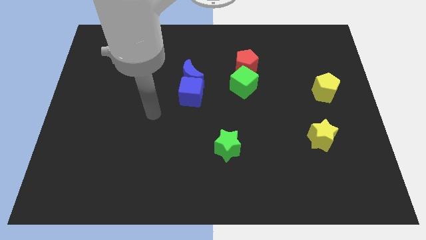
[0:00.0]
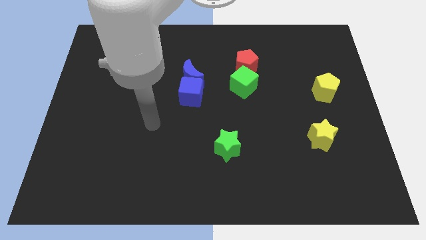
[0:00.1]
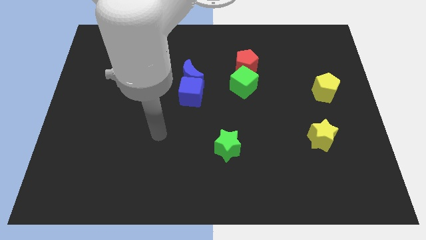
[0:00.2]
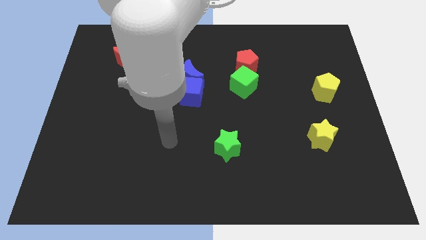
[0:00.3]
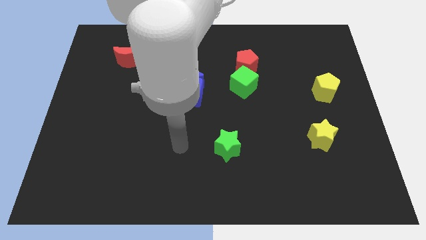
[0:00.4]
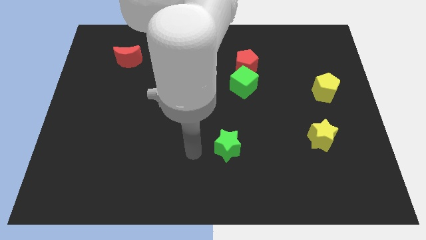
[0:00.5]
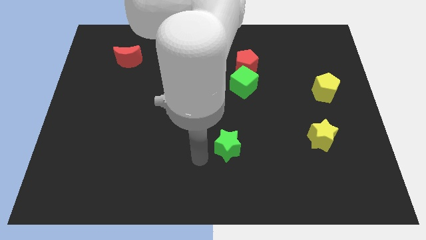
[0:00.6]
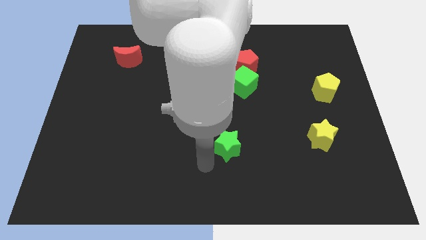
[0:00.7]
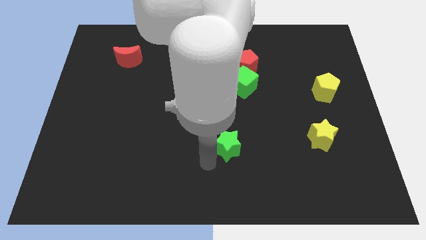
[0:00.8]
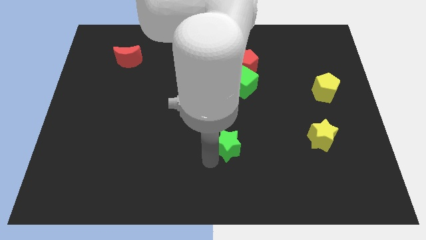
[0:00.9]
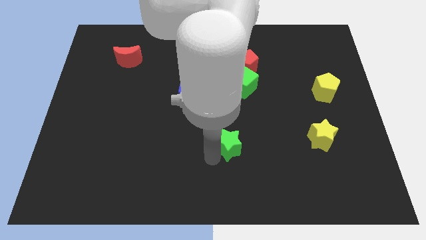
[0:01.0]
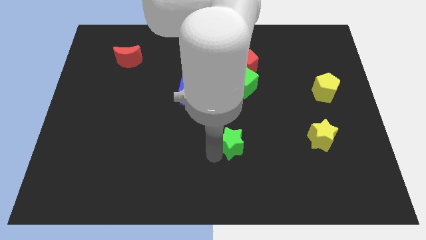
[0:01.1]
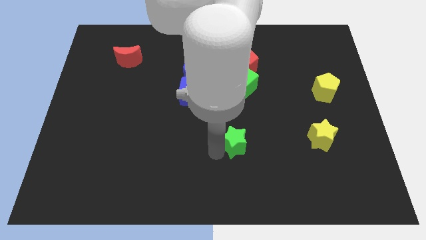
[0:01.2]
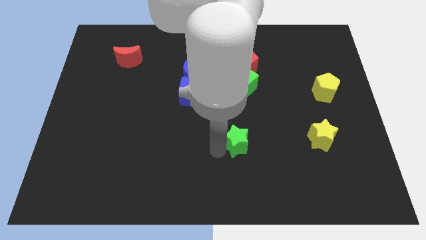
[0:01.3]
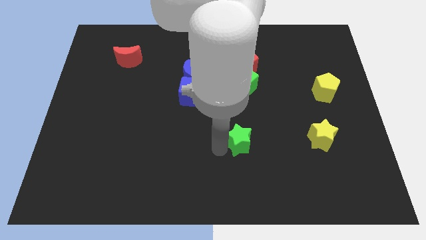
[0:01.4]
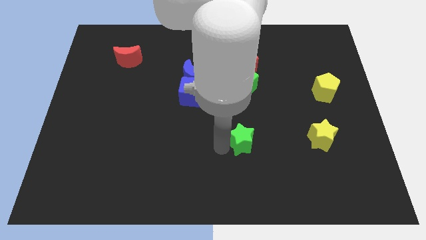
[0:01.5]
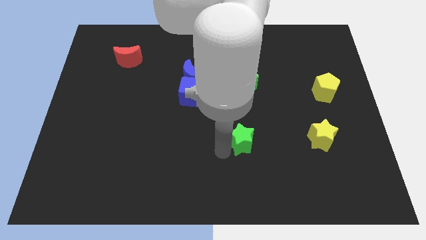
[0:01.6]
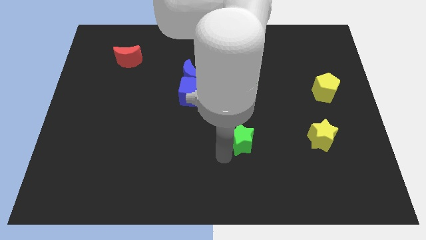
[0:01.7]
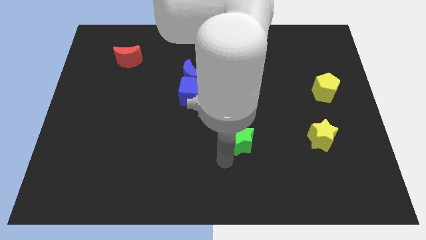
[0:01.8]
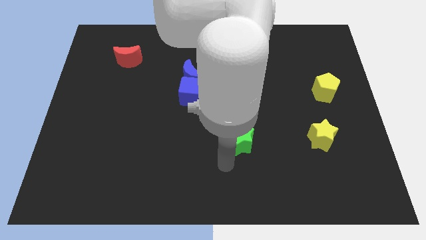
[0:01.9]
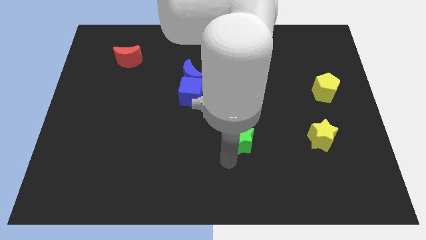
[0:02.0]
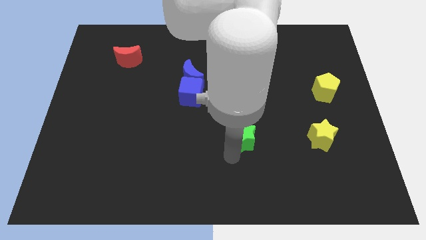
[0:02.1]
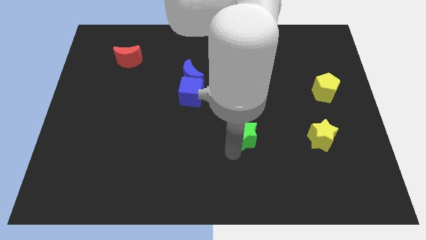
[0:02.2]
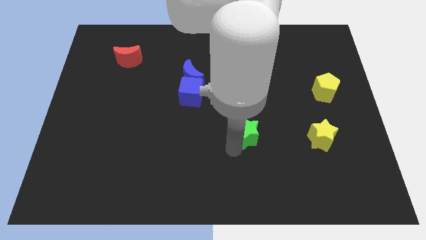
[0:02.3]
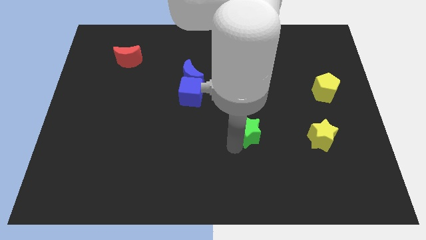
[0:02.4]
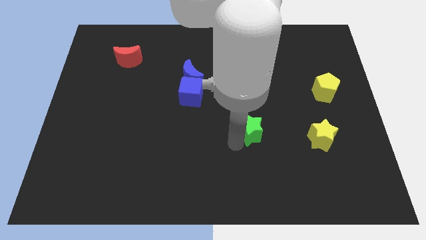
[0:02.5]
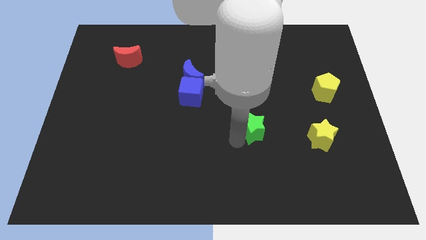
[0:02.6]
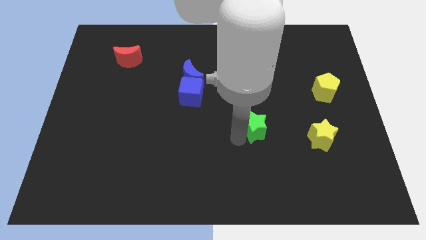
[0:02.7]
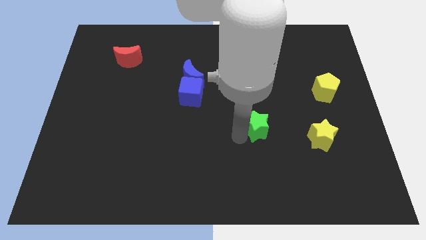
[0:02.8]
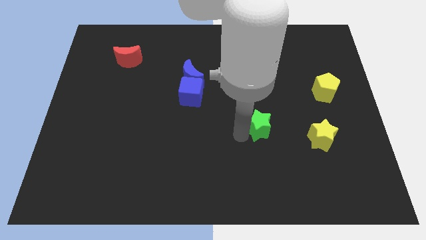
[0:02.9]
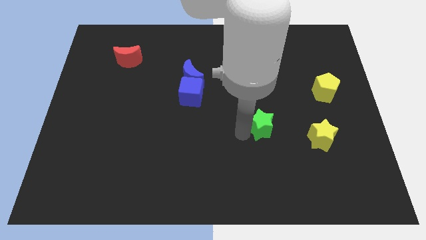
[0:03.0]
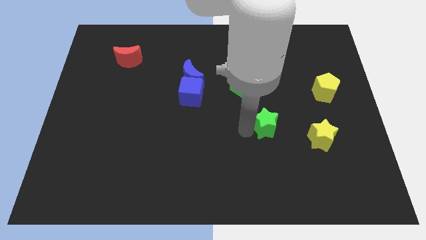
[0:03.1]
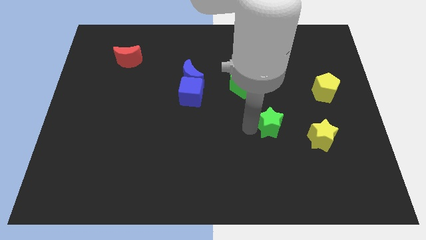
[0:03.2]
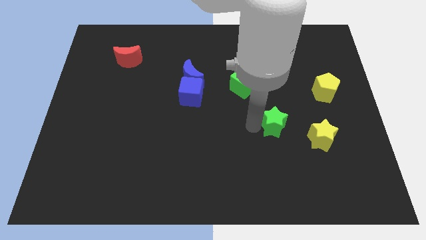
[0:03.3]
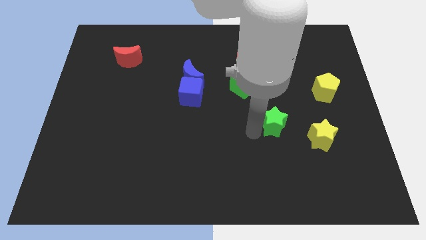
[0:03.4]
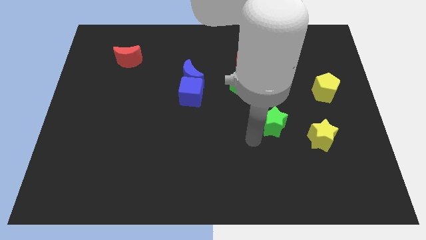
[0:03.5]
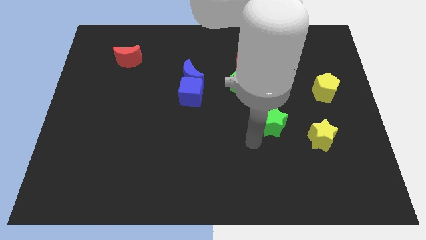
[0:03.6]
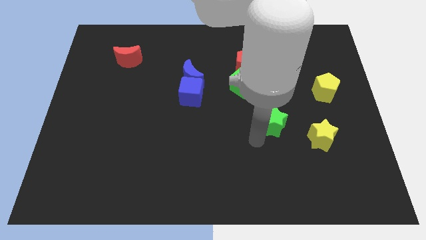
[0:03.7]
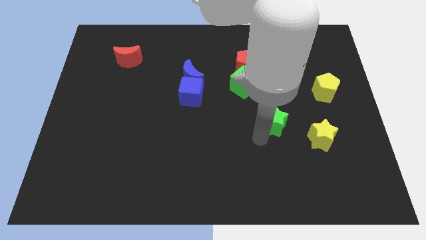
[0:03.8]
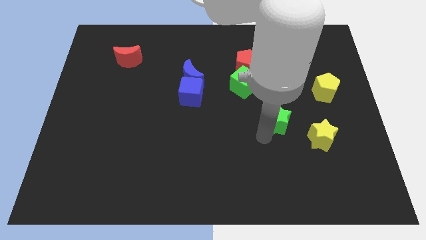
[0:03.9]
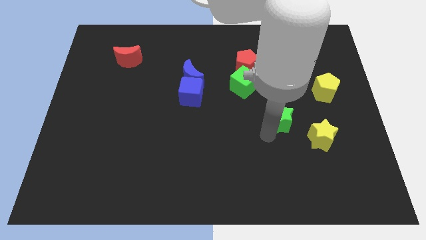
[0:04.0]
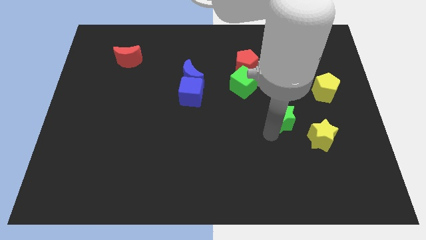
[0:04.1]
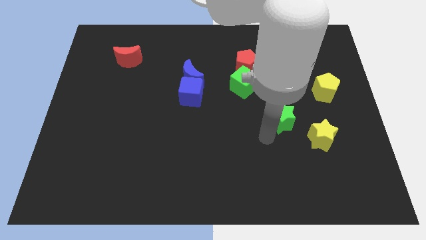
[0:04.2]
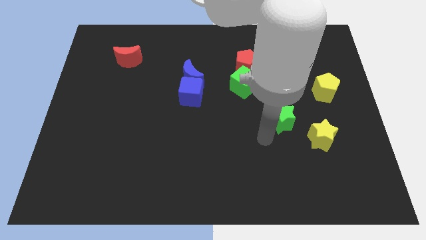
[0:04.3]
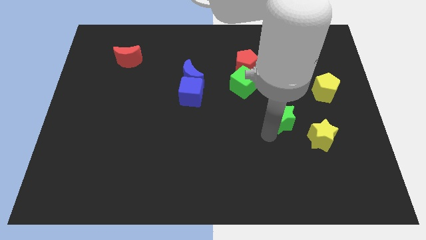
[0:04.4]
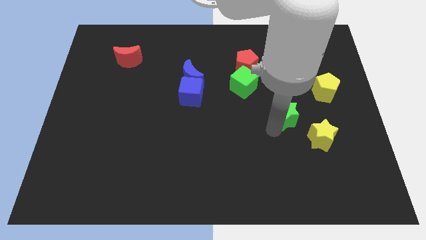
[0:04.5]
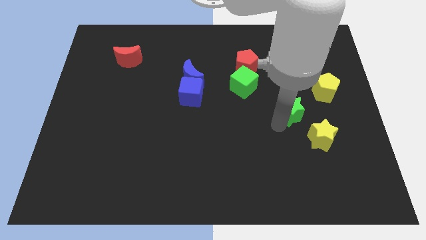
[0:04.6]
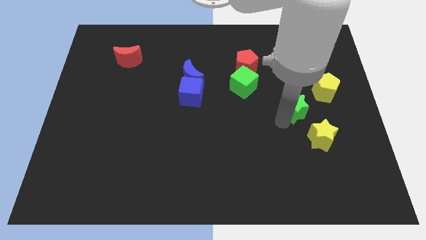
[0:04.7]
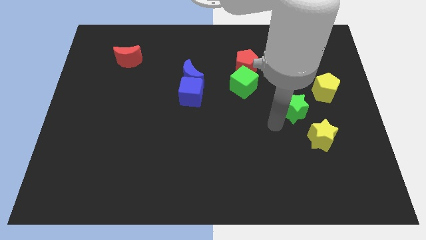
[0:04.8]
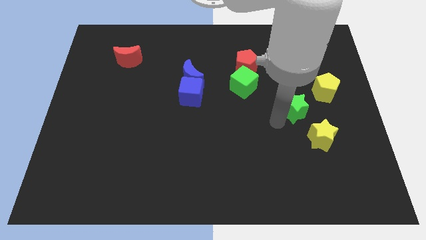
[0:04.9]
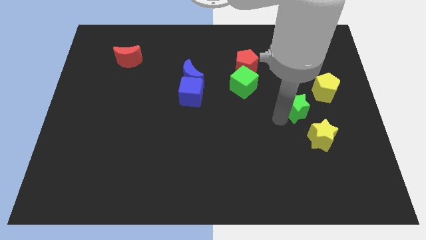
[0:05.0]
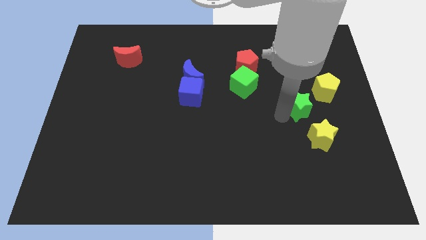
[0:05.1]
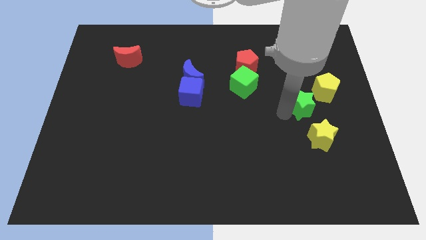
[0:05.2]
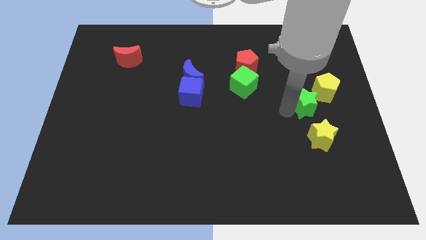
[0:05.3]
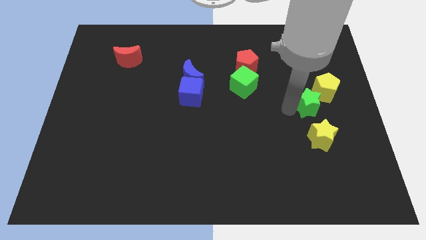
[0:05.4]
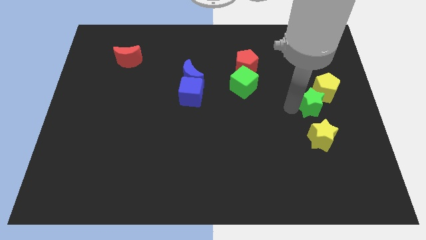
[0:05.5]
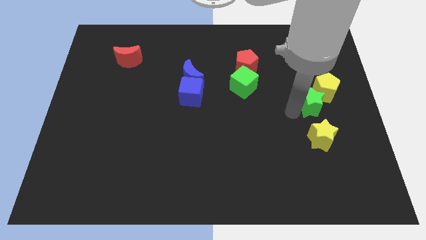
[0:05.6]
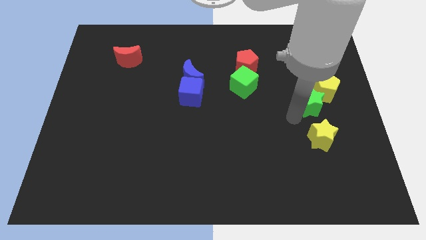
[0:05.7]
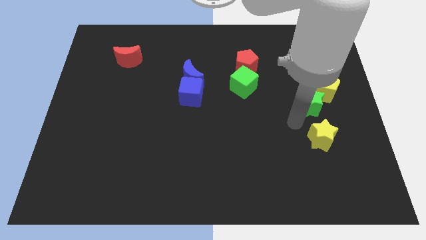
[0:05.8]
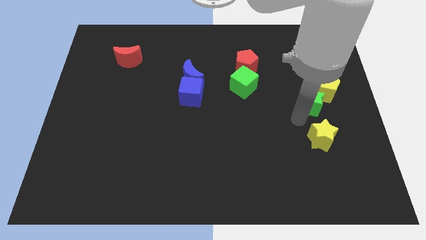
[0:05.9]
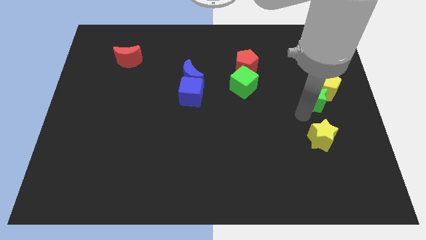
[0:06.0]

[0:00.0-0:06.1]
push the green star close to the yellow pentagon

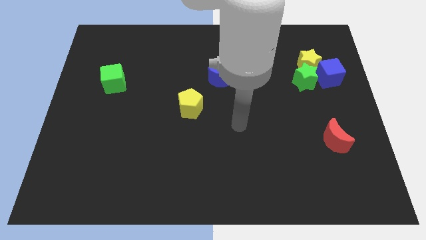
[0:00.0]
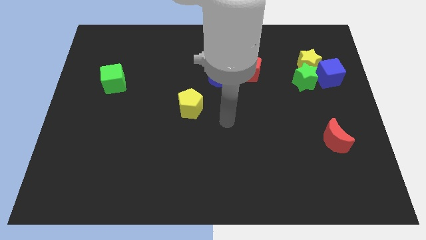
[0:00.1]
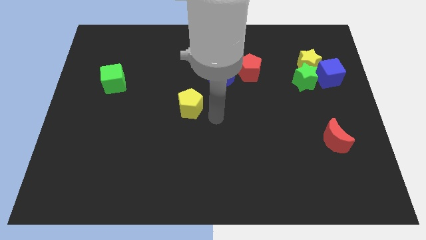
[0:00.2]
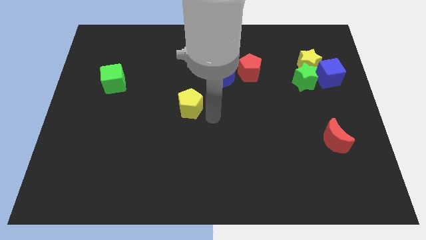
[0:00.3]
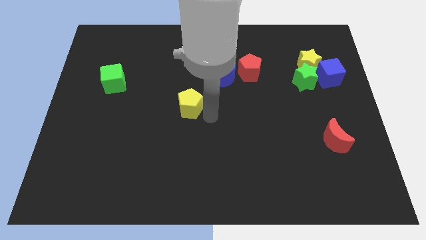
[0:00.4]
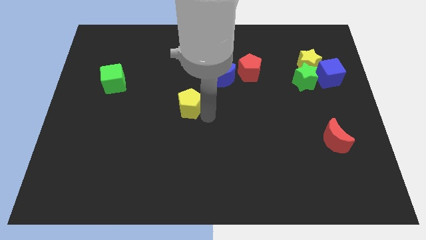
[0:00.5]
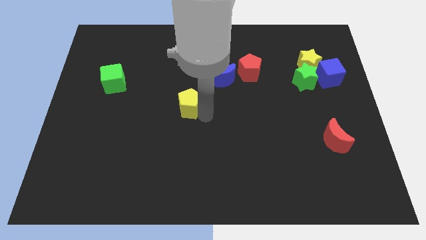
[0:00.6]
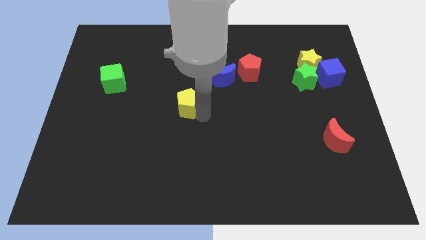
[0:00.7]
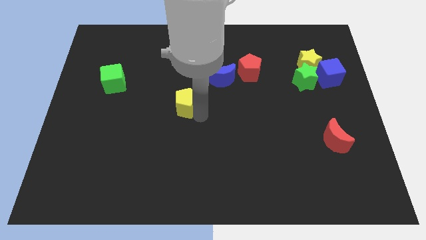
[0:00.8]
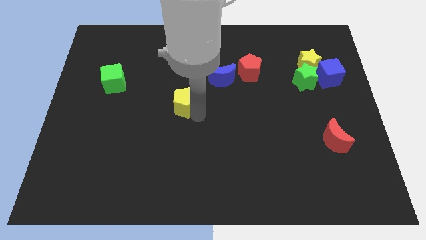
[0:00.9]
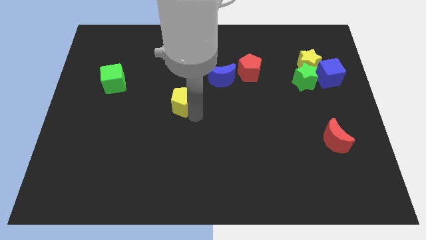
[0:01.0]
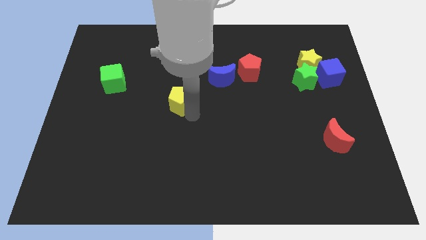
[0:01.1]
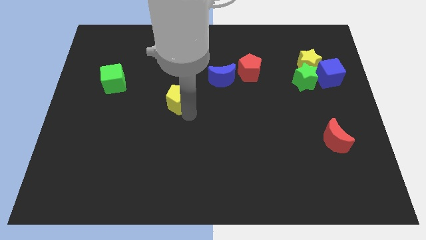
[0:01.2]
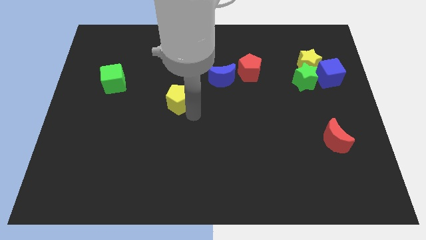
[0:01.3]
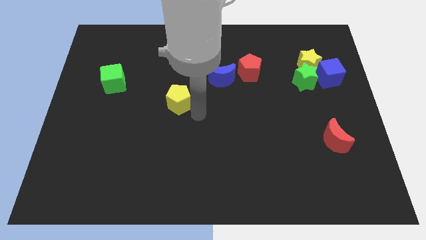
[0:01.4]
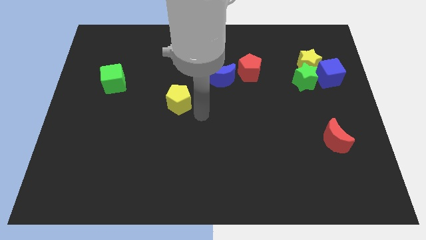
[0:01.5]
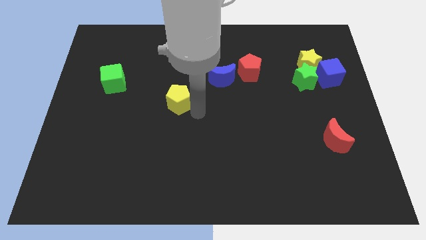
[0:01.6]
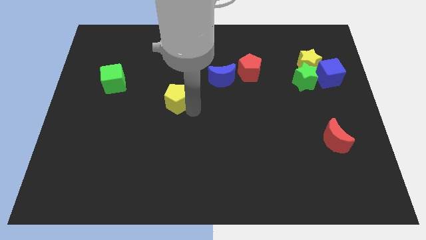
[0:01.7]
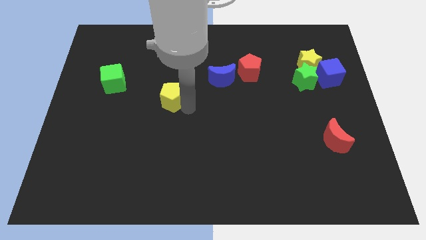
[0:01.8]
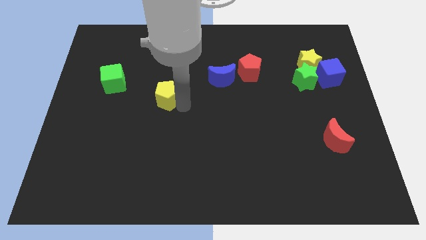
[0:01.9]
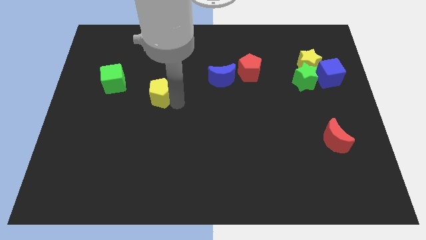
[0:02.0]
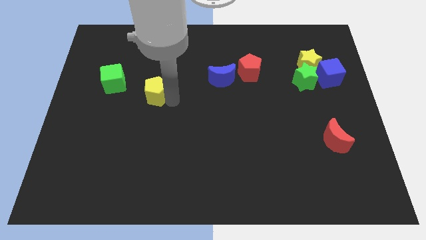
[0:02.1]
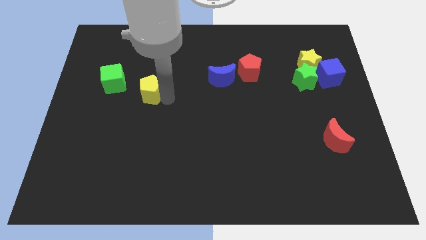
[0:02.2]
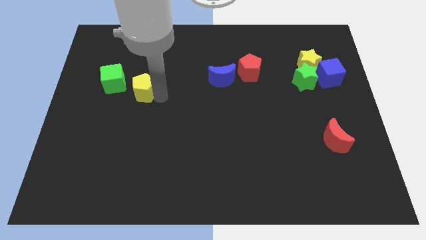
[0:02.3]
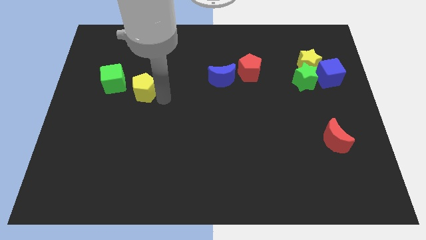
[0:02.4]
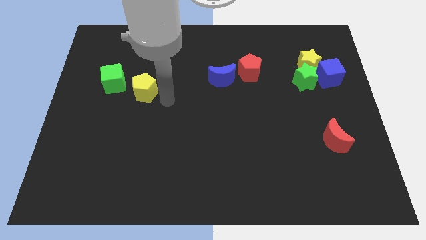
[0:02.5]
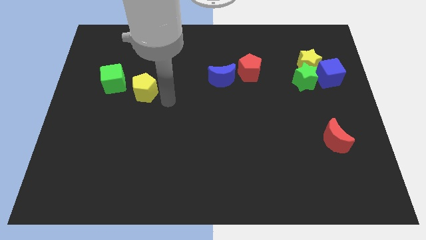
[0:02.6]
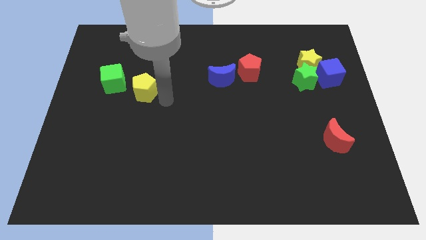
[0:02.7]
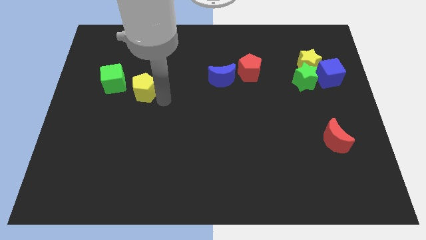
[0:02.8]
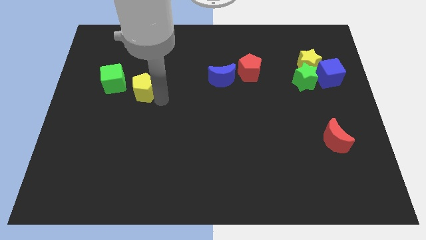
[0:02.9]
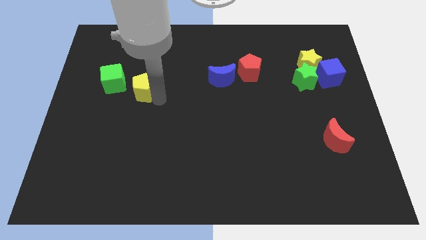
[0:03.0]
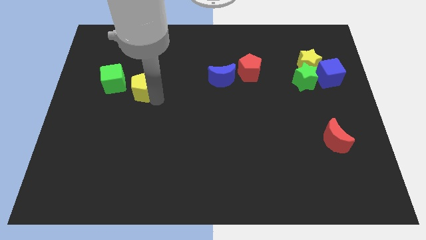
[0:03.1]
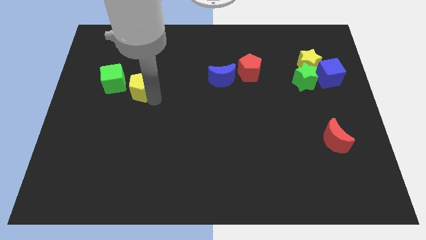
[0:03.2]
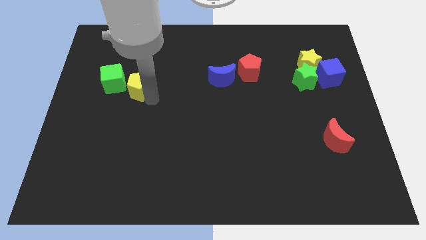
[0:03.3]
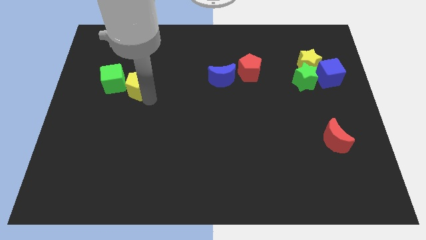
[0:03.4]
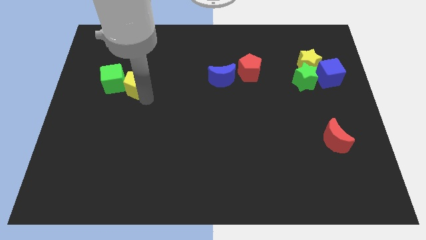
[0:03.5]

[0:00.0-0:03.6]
put the yellow pentagon towards the green cube
